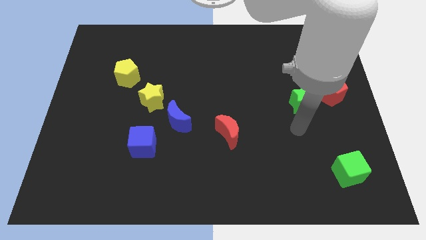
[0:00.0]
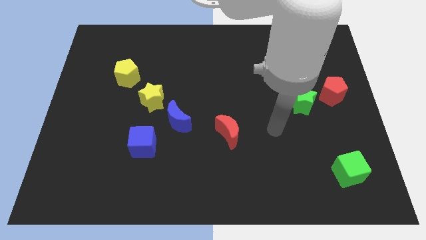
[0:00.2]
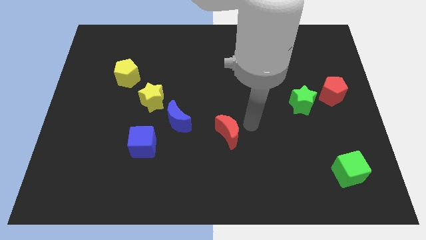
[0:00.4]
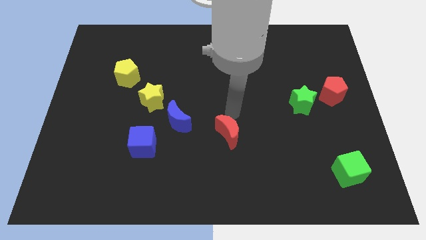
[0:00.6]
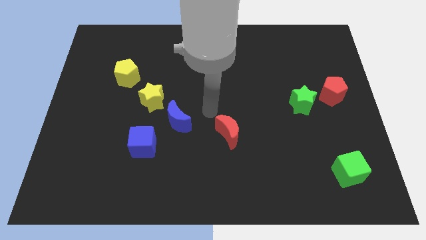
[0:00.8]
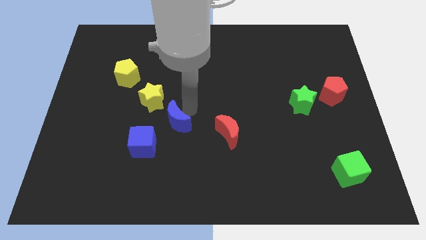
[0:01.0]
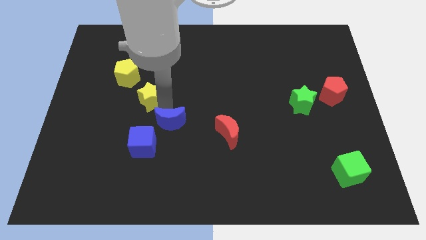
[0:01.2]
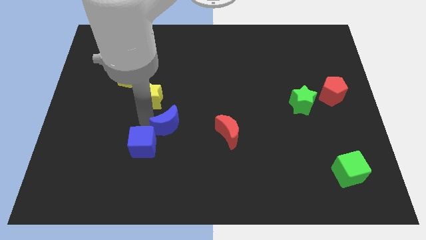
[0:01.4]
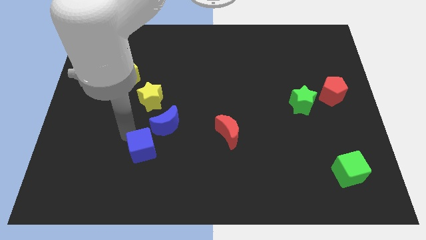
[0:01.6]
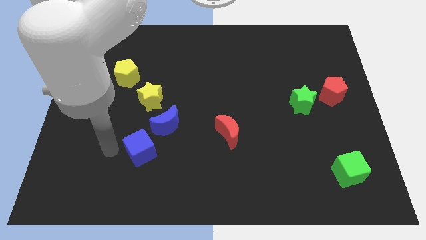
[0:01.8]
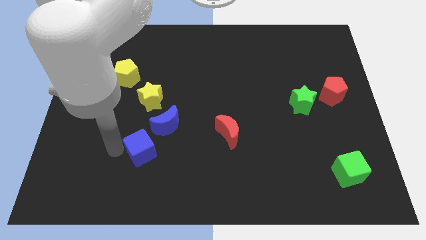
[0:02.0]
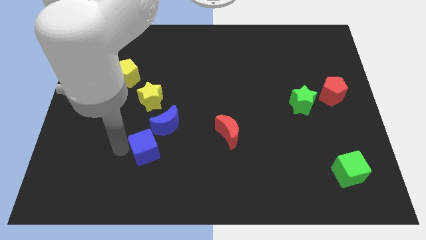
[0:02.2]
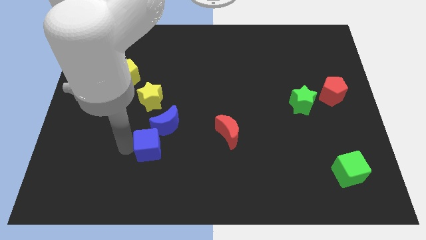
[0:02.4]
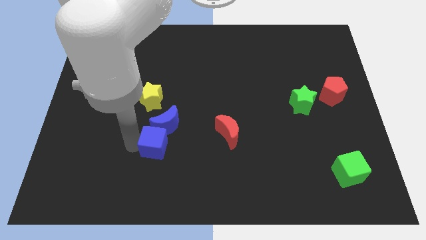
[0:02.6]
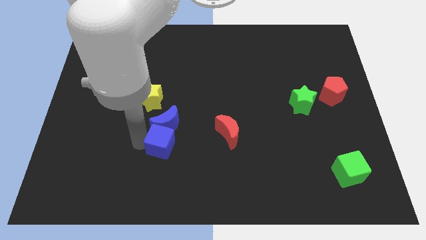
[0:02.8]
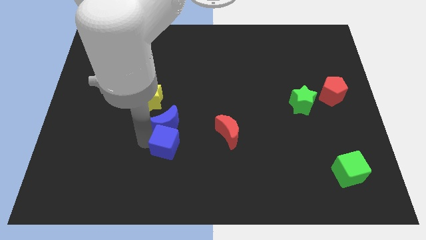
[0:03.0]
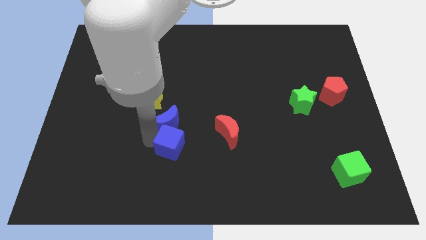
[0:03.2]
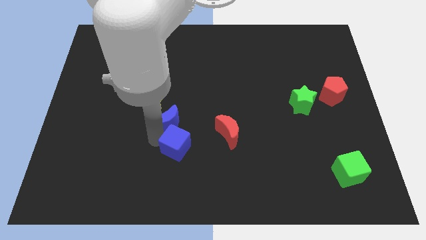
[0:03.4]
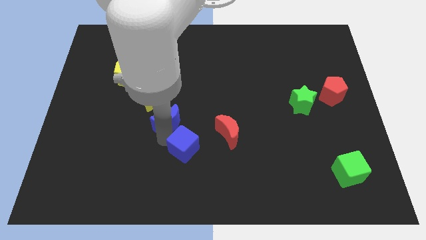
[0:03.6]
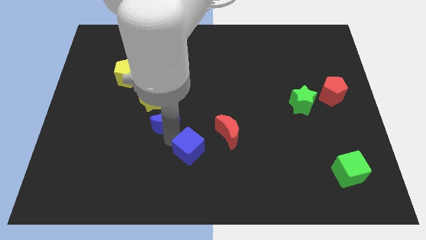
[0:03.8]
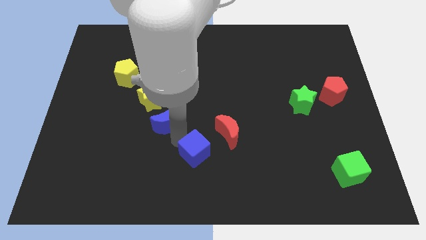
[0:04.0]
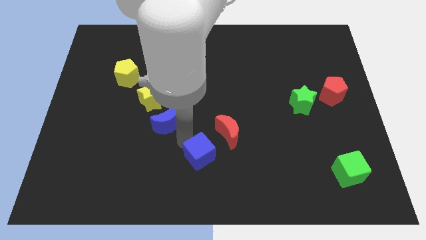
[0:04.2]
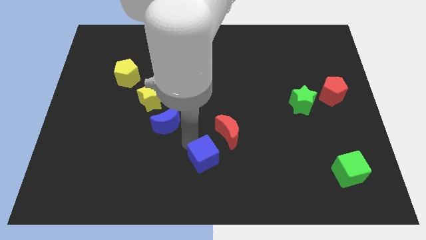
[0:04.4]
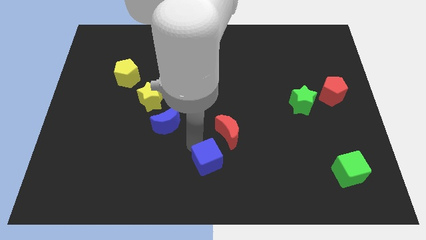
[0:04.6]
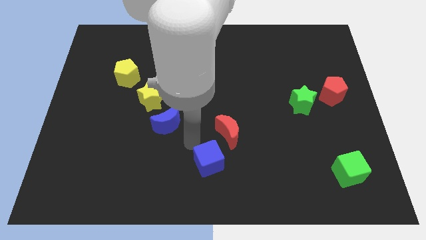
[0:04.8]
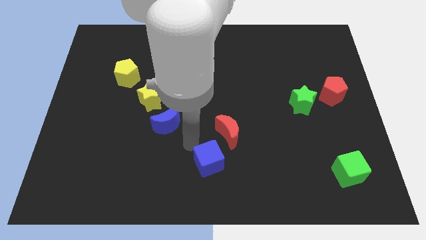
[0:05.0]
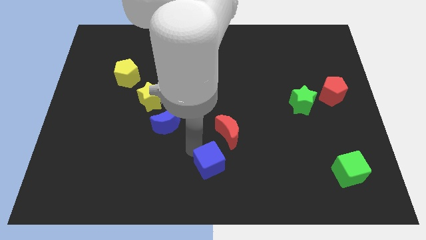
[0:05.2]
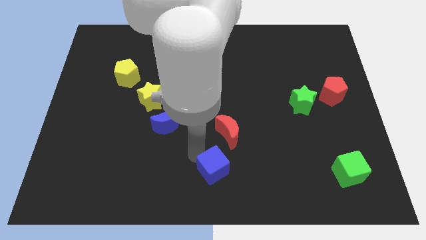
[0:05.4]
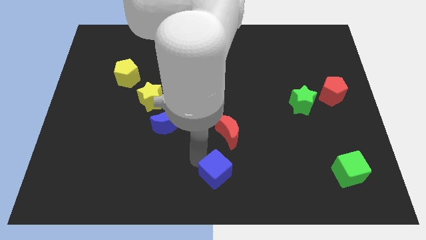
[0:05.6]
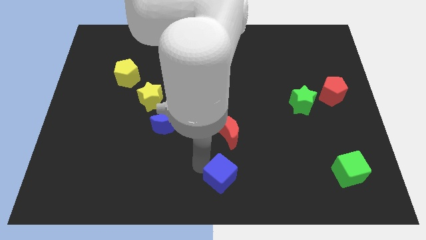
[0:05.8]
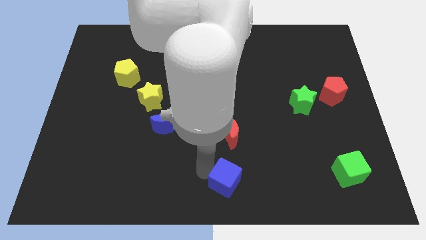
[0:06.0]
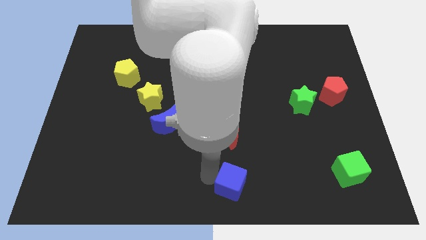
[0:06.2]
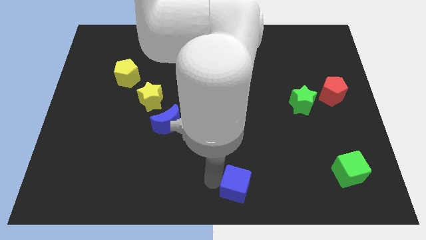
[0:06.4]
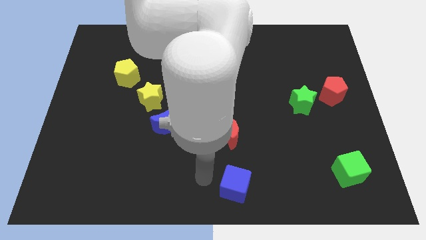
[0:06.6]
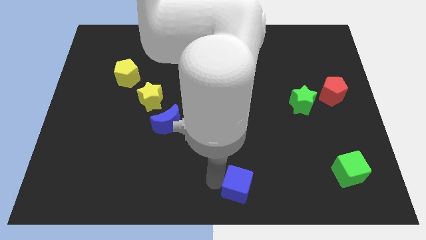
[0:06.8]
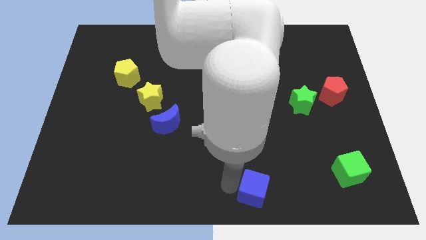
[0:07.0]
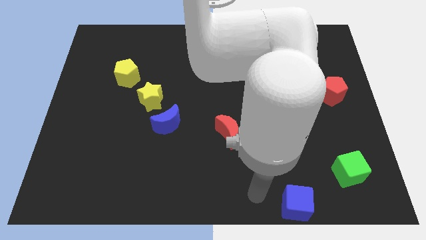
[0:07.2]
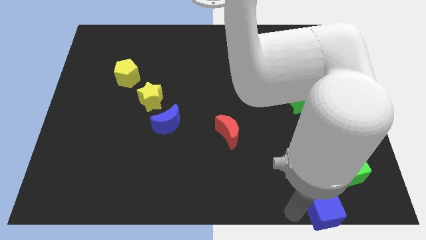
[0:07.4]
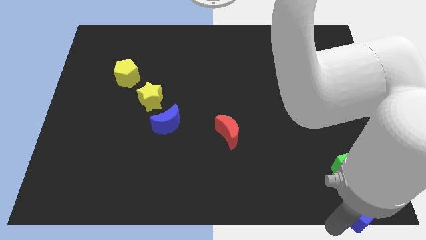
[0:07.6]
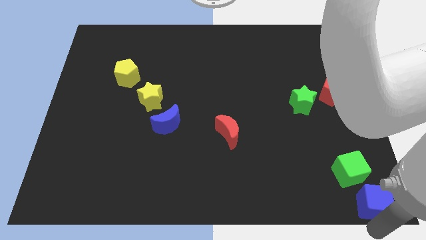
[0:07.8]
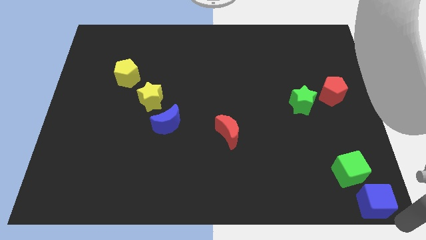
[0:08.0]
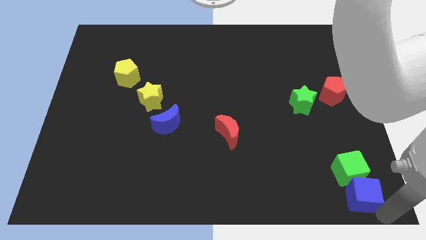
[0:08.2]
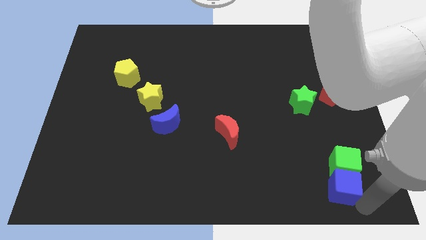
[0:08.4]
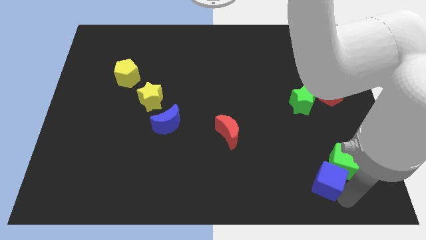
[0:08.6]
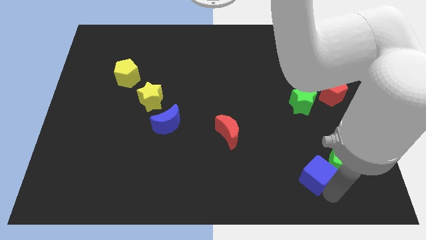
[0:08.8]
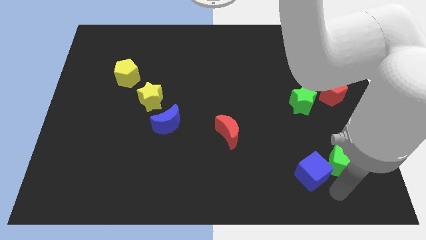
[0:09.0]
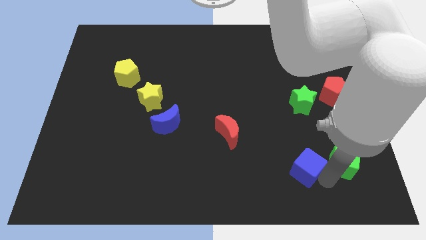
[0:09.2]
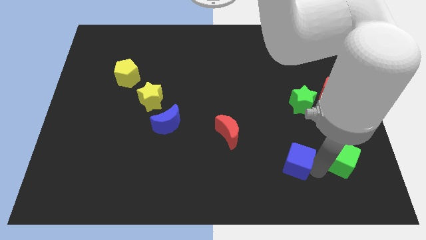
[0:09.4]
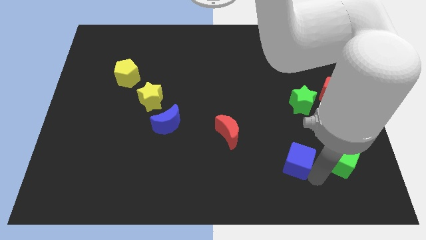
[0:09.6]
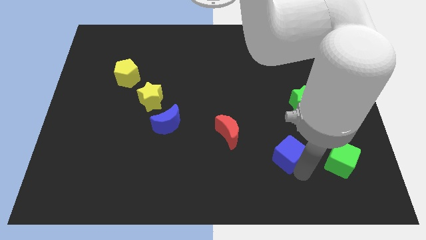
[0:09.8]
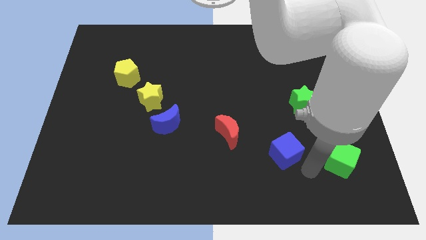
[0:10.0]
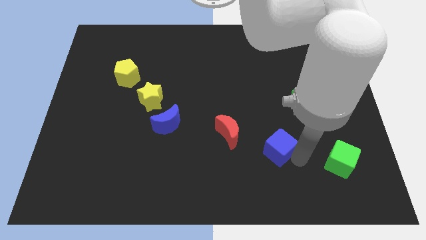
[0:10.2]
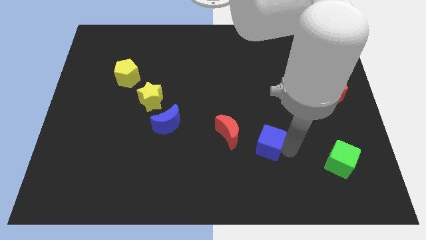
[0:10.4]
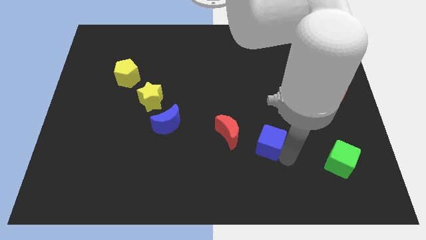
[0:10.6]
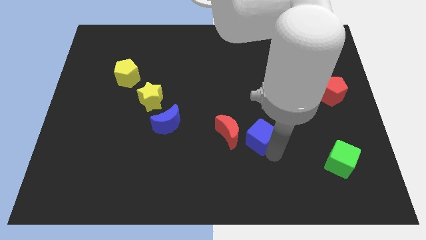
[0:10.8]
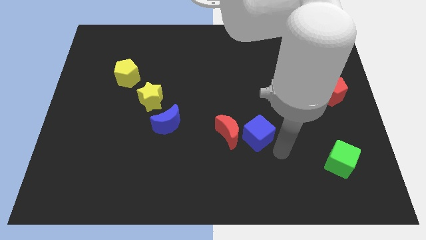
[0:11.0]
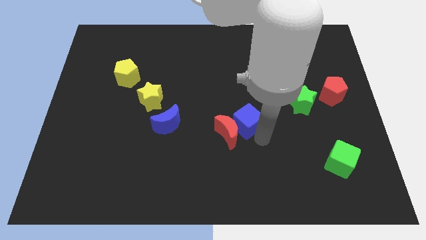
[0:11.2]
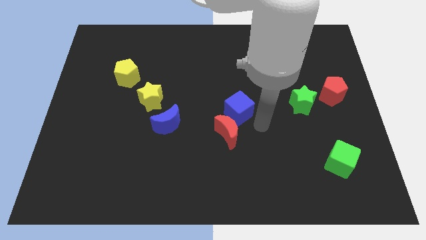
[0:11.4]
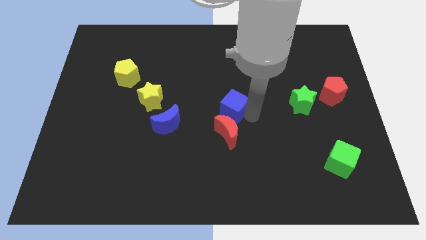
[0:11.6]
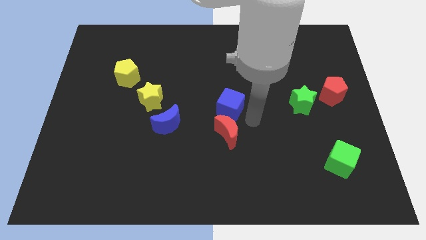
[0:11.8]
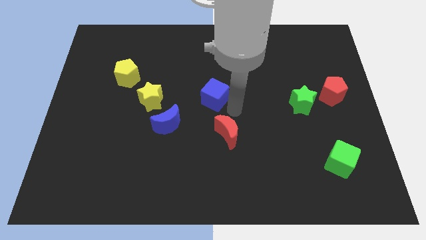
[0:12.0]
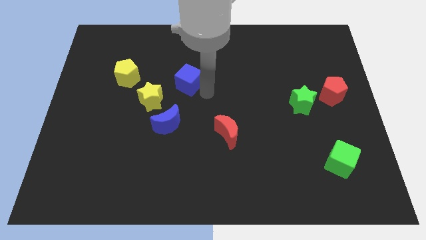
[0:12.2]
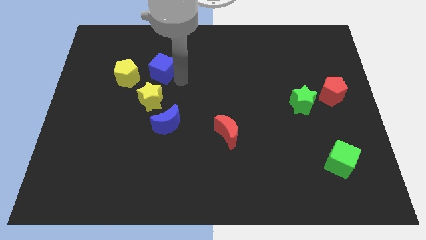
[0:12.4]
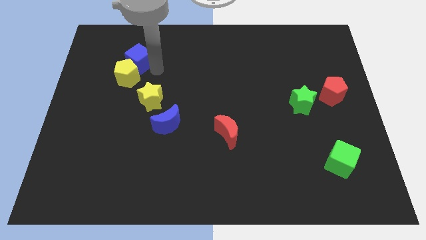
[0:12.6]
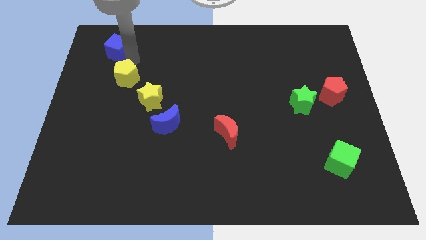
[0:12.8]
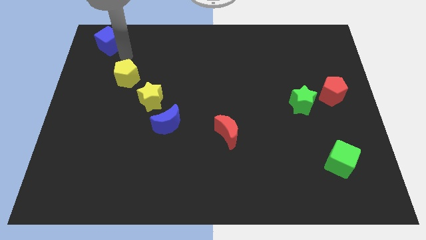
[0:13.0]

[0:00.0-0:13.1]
push the blue cube to the top left corner
